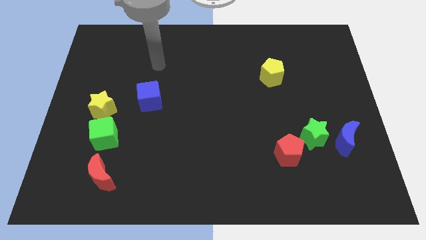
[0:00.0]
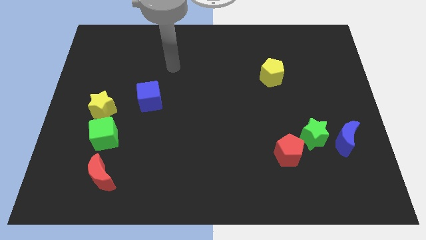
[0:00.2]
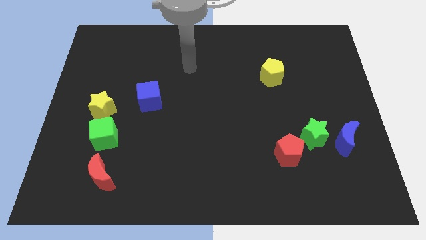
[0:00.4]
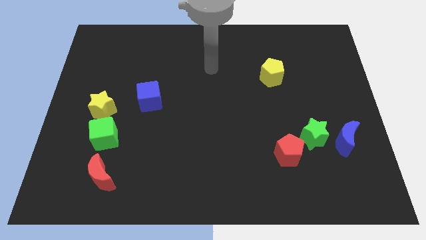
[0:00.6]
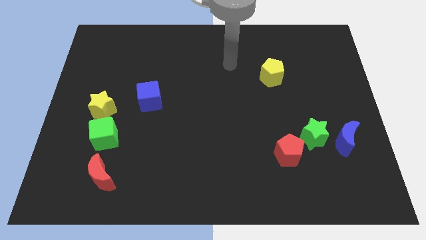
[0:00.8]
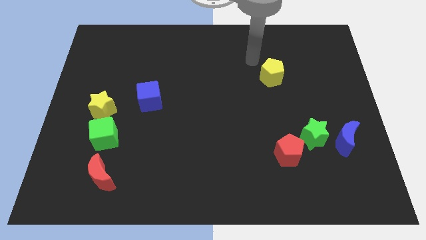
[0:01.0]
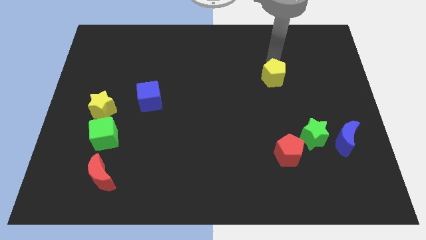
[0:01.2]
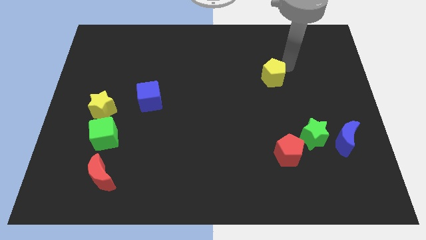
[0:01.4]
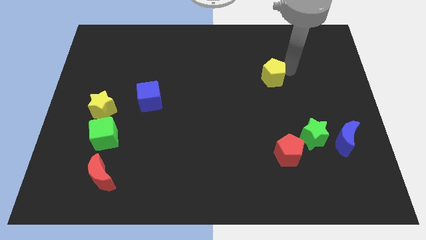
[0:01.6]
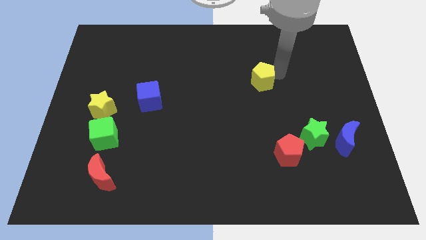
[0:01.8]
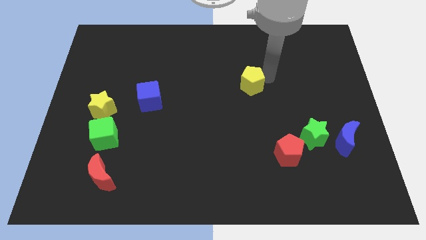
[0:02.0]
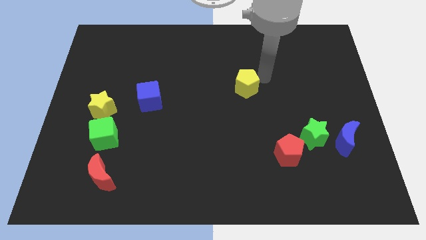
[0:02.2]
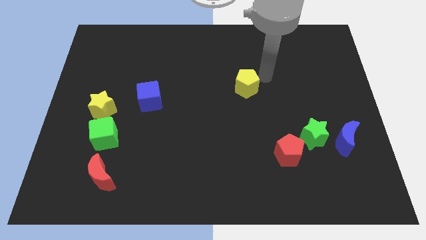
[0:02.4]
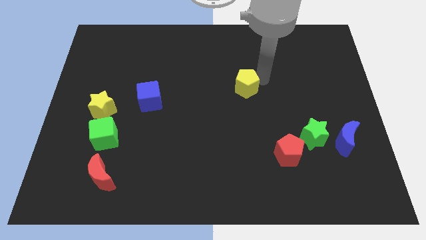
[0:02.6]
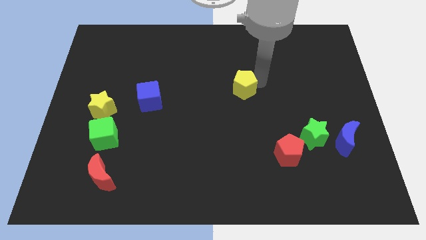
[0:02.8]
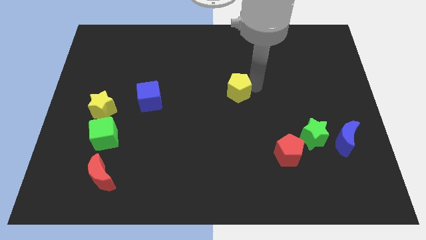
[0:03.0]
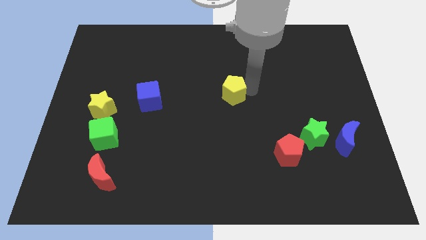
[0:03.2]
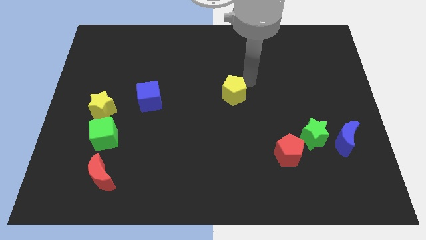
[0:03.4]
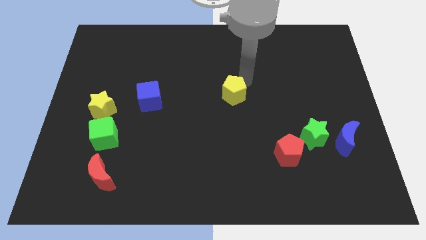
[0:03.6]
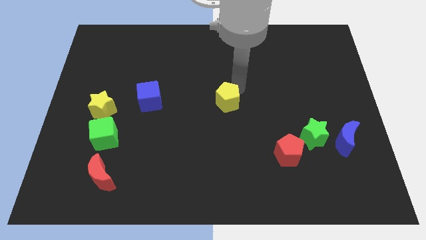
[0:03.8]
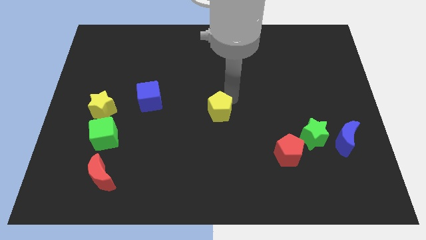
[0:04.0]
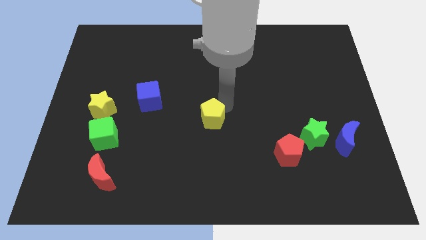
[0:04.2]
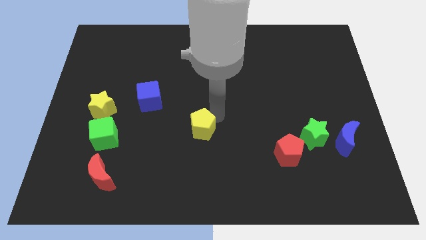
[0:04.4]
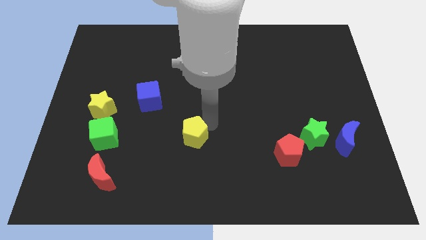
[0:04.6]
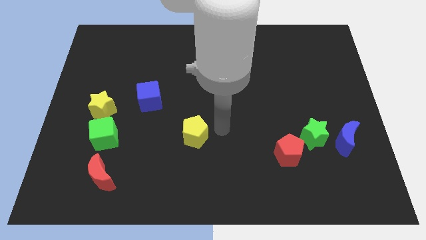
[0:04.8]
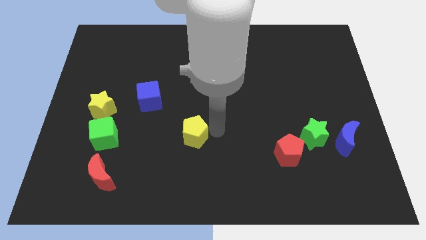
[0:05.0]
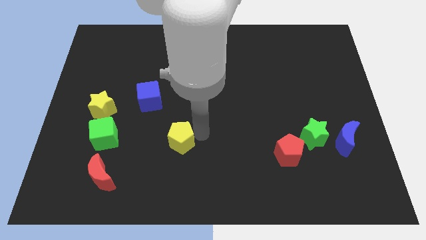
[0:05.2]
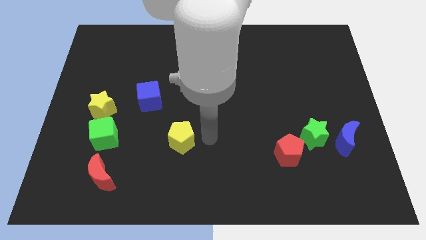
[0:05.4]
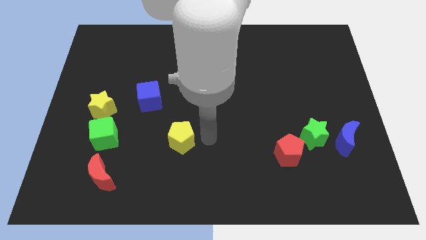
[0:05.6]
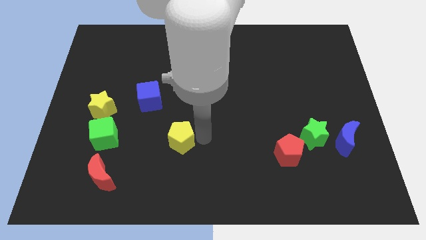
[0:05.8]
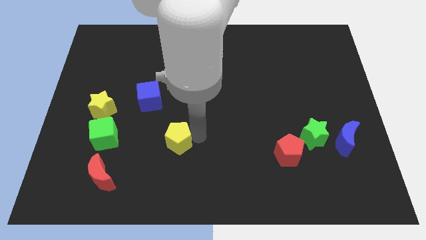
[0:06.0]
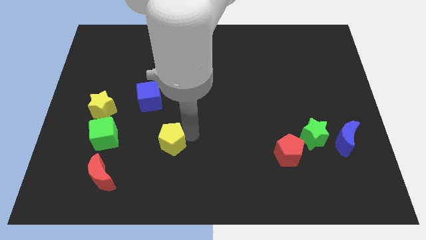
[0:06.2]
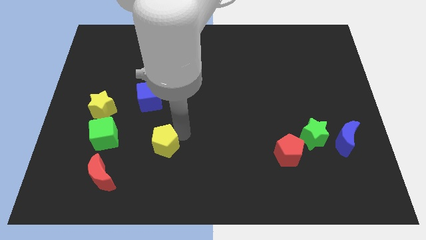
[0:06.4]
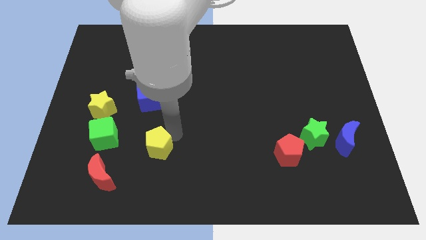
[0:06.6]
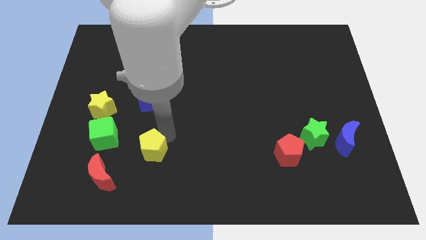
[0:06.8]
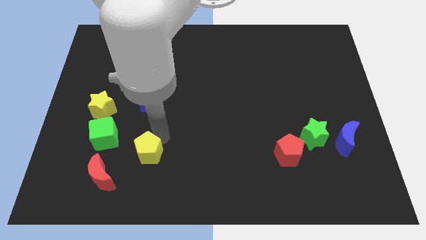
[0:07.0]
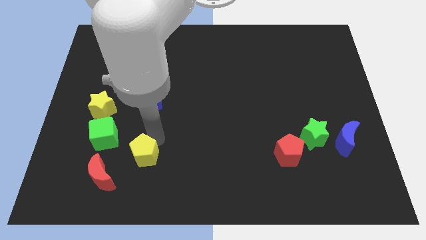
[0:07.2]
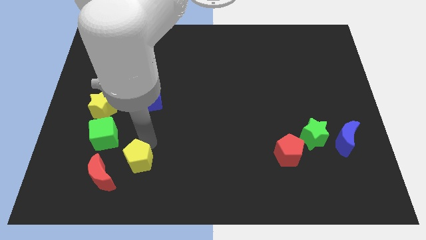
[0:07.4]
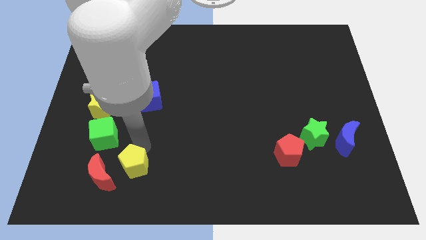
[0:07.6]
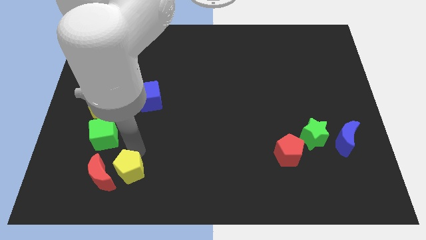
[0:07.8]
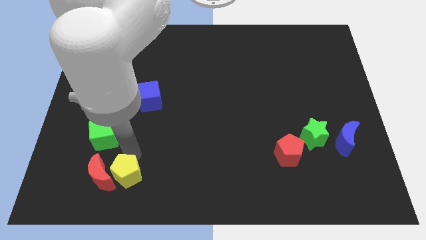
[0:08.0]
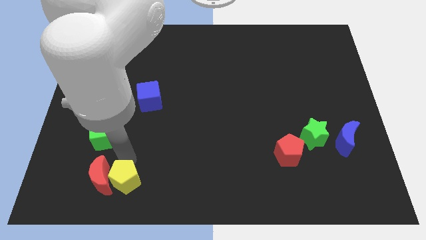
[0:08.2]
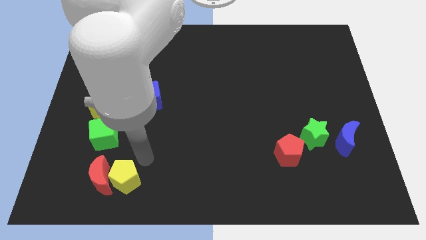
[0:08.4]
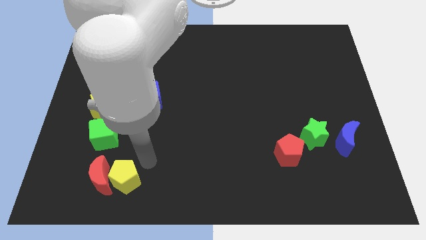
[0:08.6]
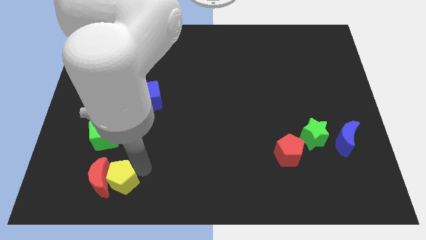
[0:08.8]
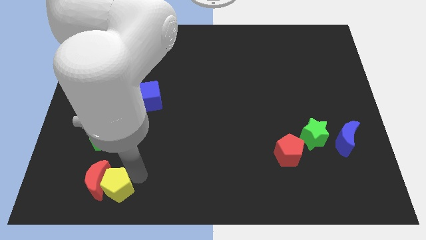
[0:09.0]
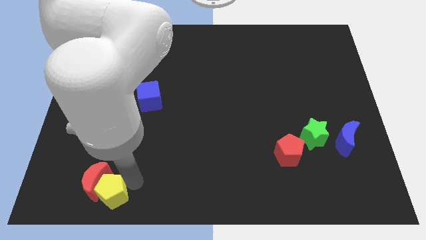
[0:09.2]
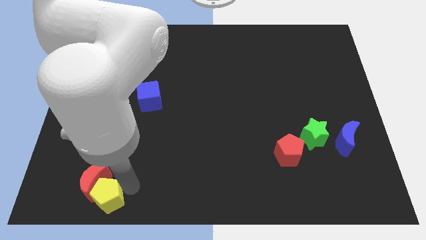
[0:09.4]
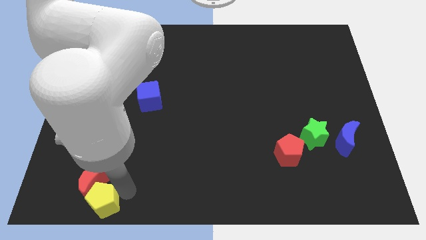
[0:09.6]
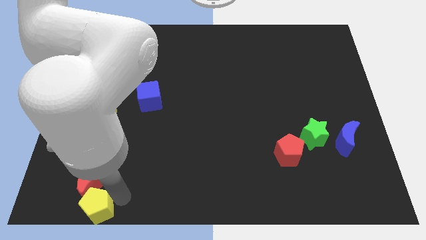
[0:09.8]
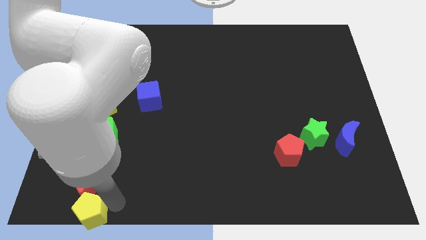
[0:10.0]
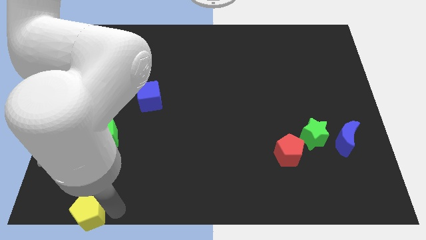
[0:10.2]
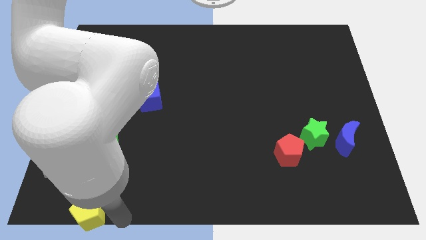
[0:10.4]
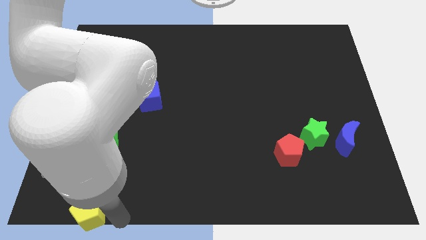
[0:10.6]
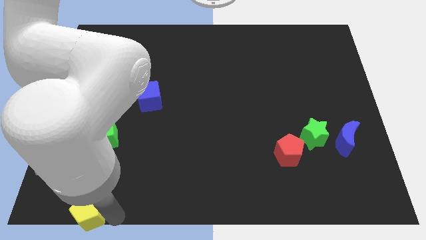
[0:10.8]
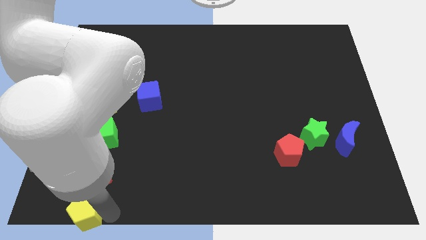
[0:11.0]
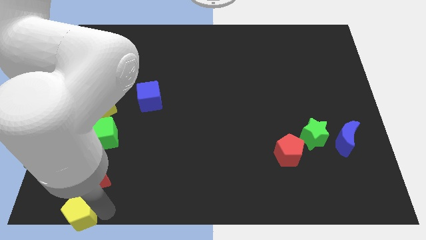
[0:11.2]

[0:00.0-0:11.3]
slide the yellow pentagon to the lower left corner
